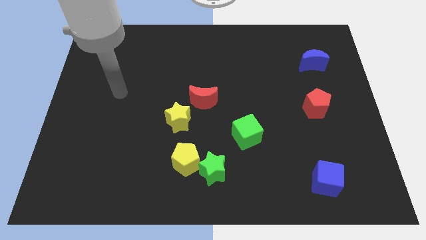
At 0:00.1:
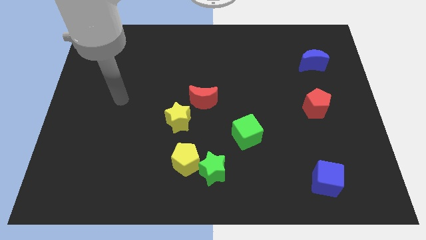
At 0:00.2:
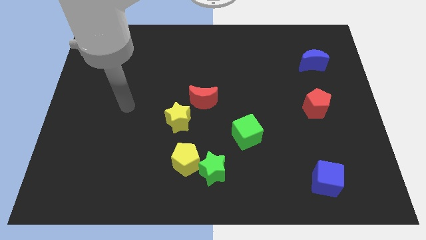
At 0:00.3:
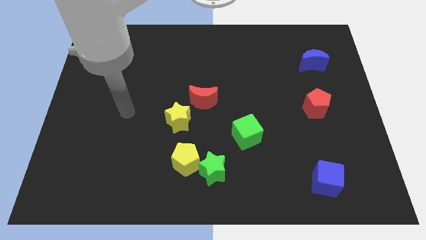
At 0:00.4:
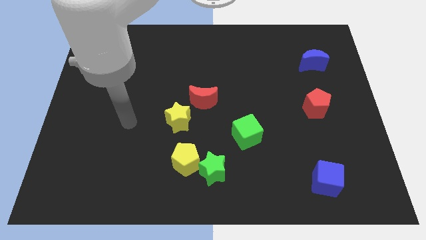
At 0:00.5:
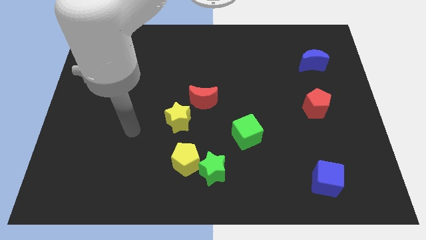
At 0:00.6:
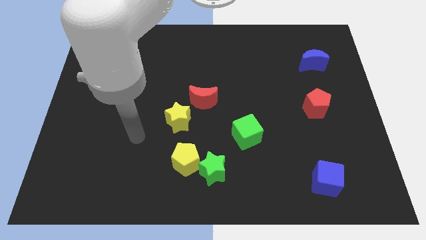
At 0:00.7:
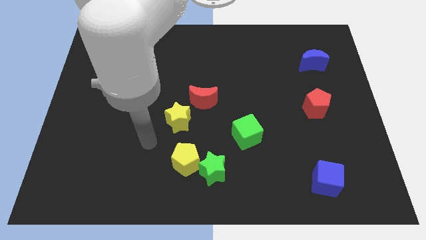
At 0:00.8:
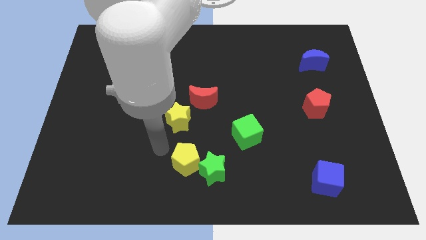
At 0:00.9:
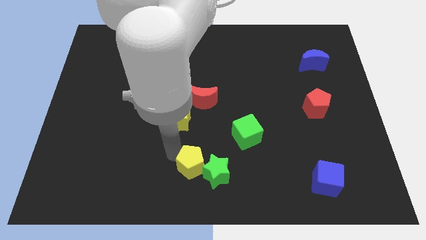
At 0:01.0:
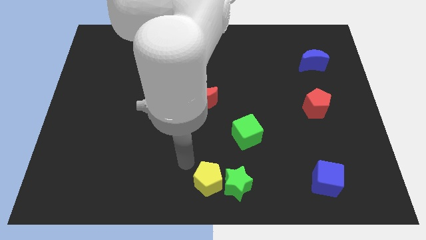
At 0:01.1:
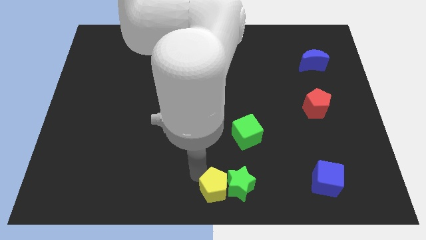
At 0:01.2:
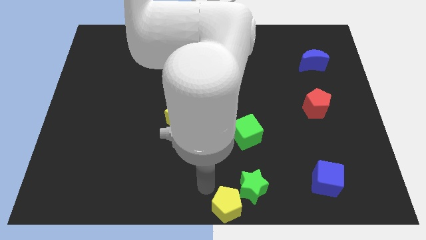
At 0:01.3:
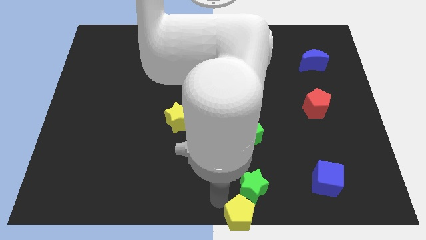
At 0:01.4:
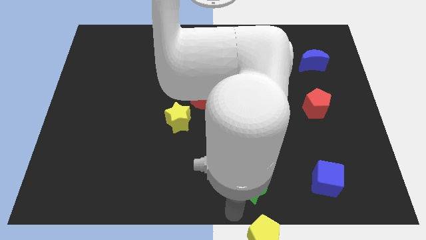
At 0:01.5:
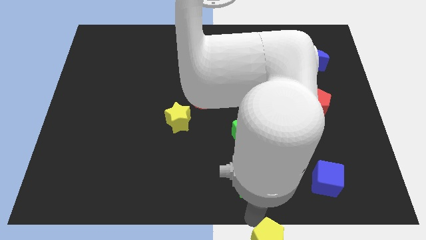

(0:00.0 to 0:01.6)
move the green star away from the yellow pentagon

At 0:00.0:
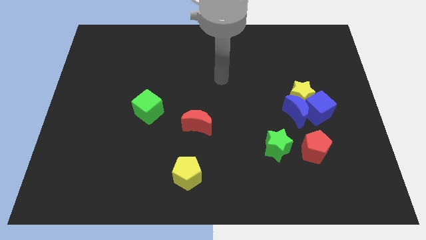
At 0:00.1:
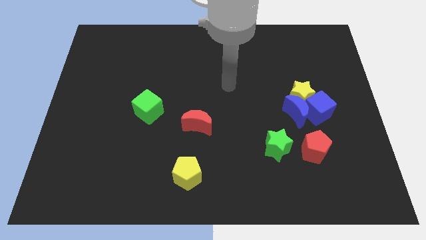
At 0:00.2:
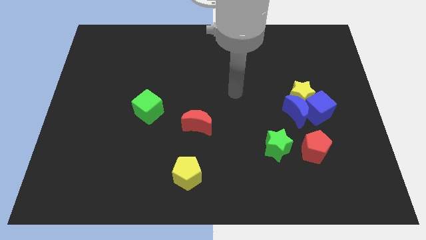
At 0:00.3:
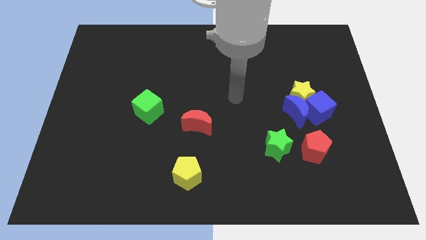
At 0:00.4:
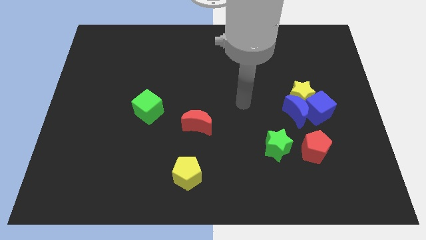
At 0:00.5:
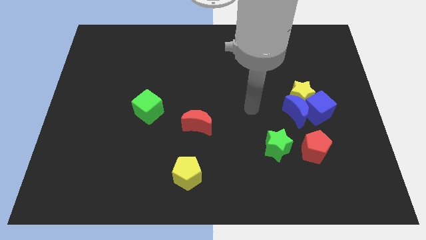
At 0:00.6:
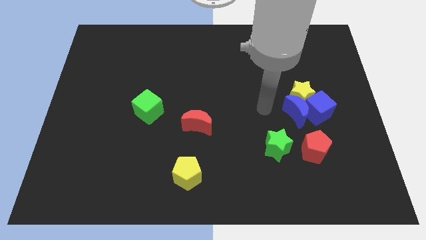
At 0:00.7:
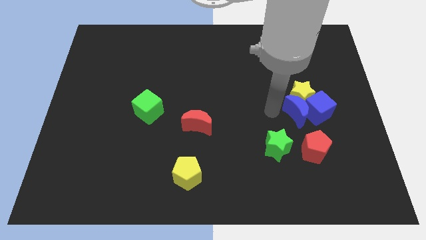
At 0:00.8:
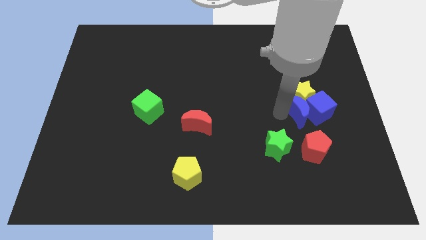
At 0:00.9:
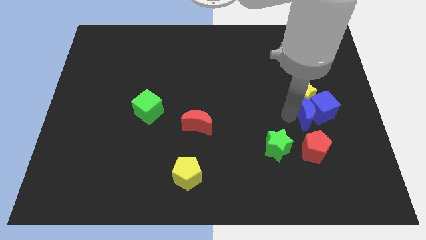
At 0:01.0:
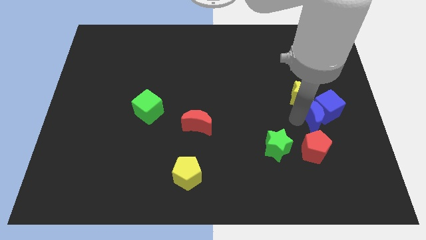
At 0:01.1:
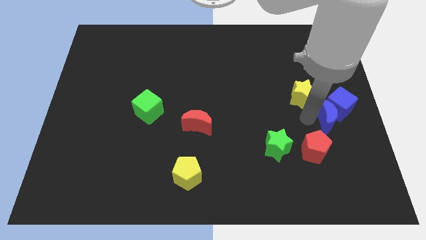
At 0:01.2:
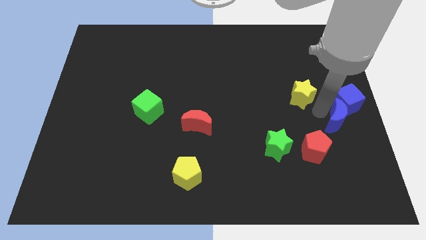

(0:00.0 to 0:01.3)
separate the yellow star from the blue moon and blue cube

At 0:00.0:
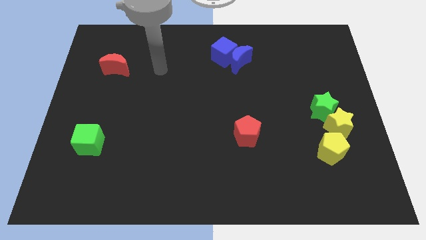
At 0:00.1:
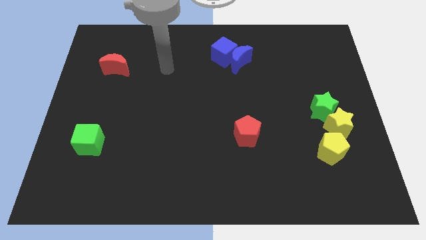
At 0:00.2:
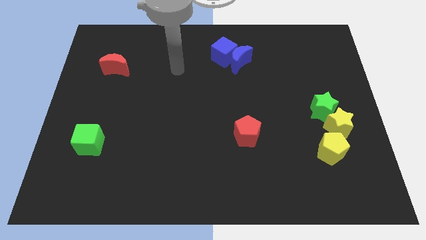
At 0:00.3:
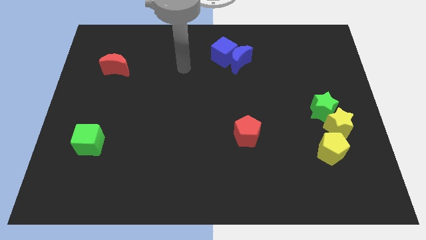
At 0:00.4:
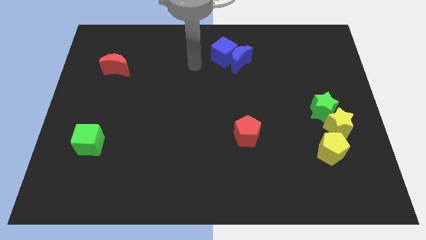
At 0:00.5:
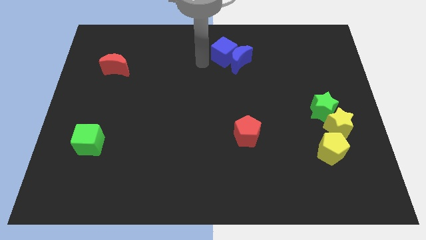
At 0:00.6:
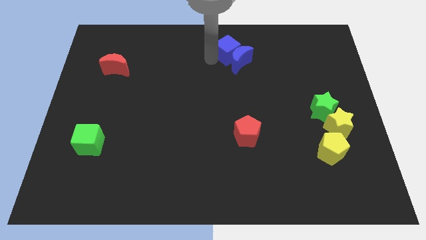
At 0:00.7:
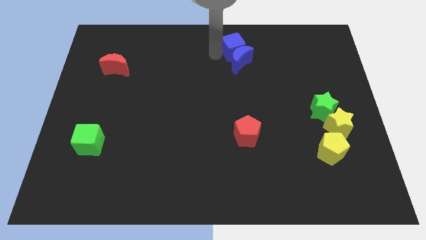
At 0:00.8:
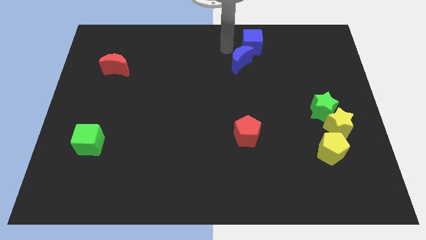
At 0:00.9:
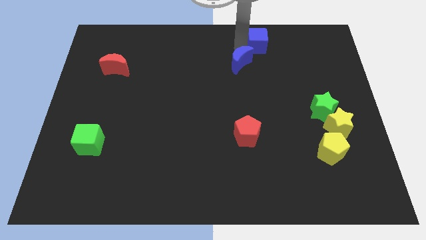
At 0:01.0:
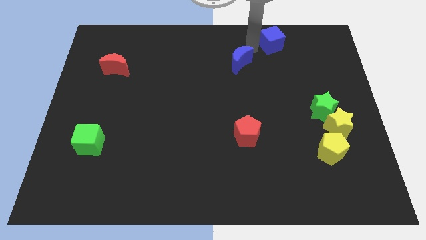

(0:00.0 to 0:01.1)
move the blue moon away from the blue cube

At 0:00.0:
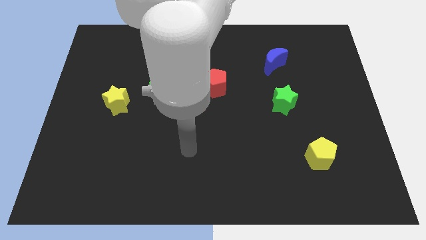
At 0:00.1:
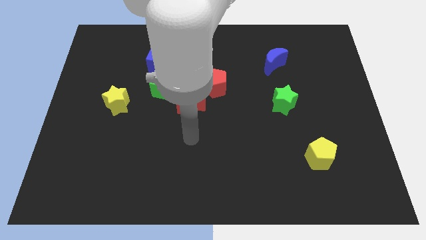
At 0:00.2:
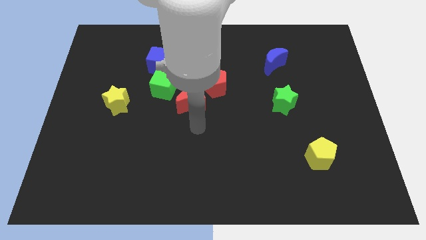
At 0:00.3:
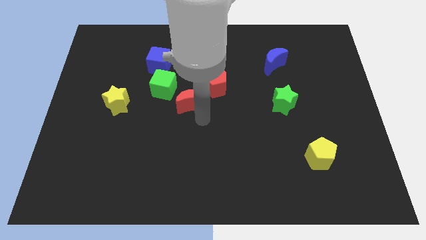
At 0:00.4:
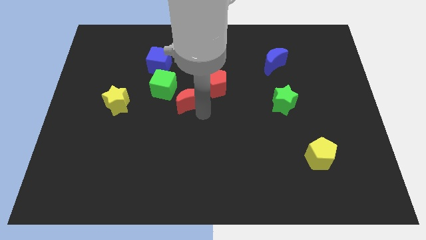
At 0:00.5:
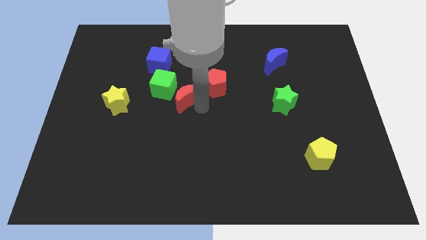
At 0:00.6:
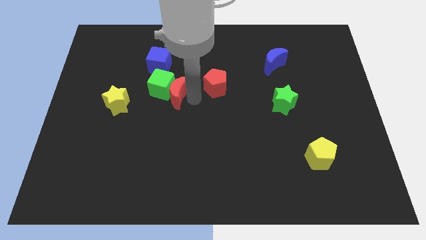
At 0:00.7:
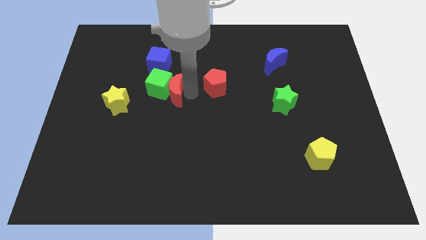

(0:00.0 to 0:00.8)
move the red pentagon away from the red moon

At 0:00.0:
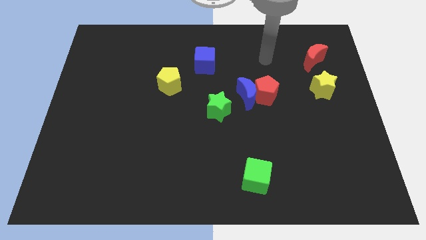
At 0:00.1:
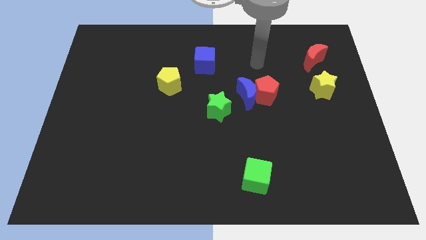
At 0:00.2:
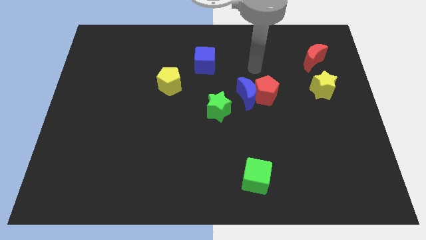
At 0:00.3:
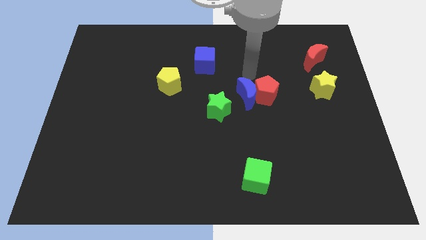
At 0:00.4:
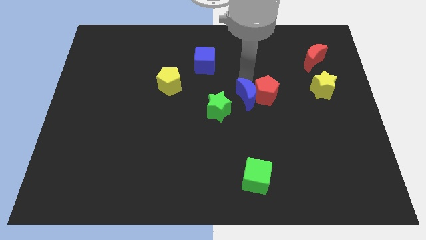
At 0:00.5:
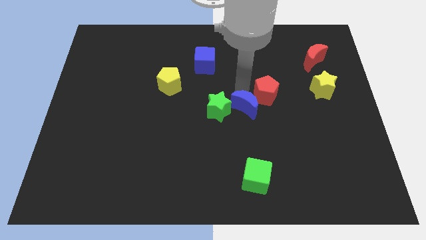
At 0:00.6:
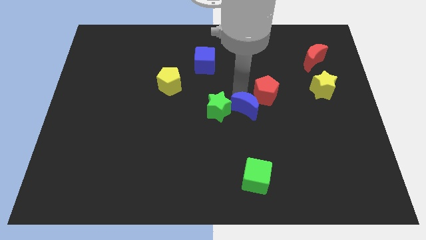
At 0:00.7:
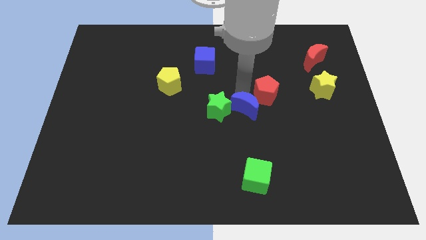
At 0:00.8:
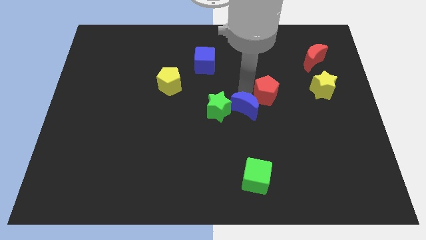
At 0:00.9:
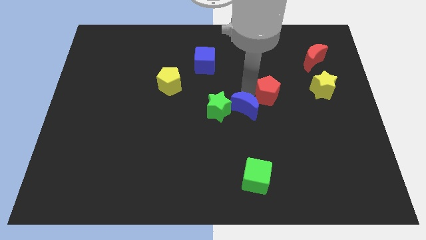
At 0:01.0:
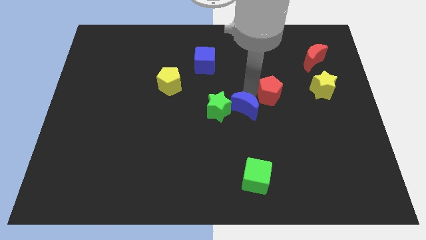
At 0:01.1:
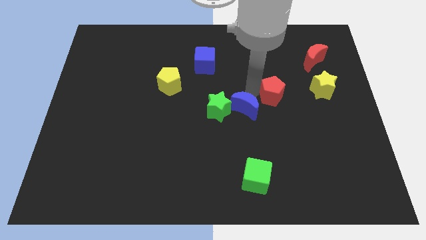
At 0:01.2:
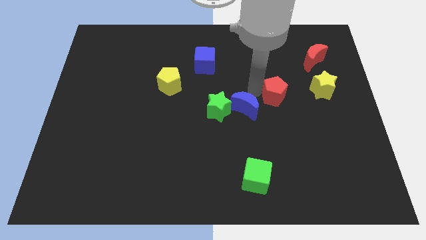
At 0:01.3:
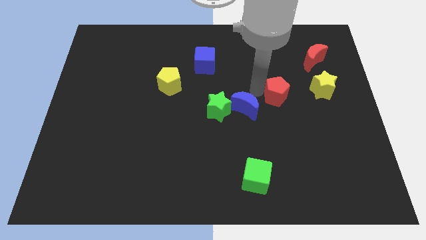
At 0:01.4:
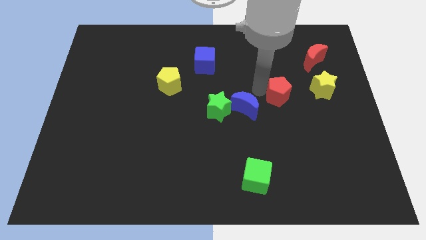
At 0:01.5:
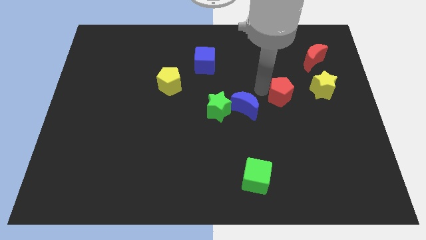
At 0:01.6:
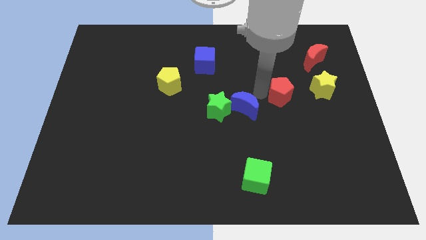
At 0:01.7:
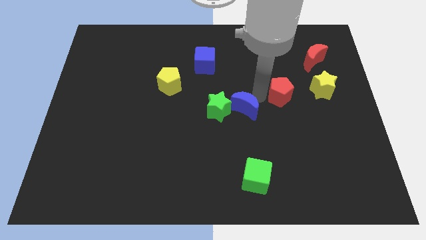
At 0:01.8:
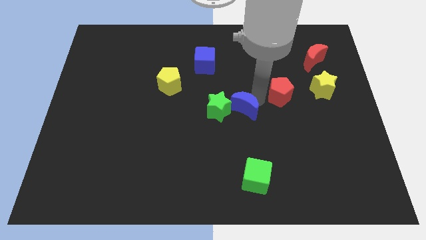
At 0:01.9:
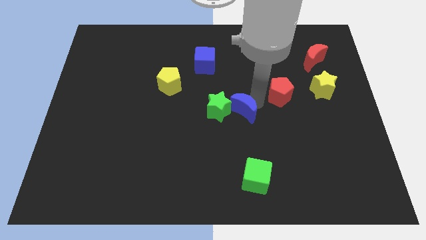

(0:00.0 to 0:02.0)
pull the red pentagon apart from the blue moon

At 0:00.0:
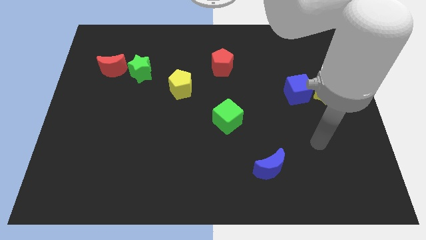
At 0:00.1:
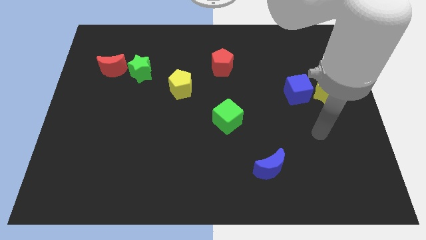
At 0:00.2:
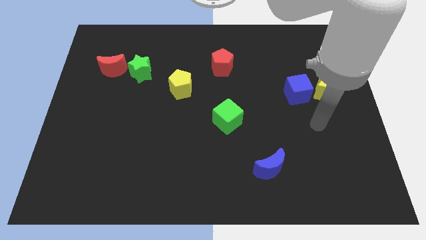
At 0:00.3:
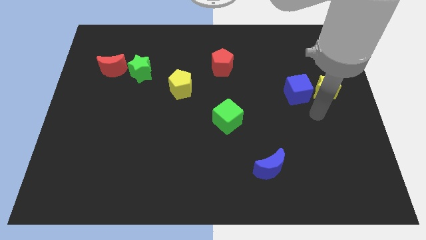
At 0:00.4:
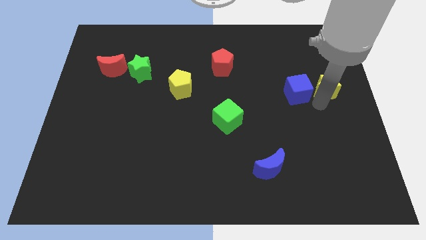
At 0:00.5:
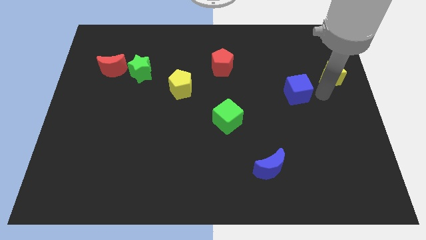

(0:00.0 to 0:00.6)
move the blue cube away from the yellow star

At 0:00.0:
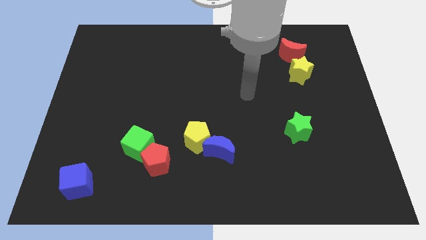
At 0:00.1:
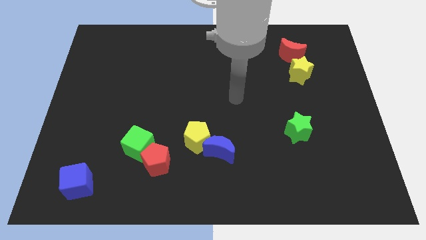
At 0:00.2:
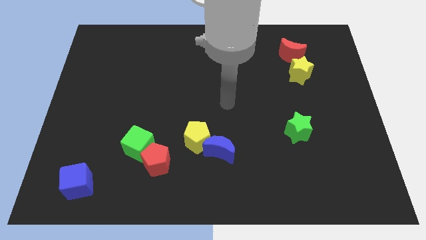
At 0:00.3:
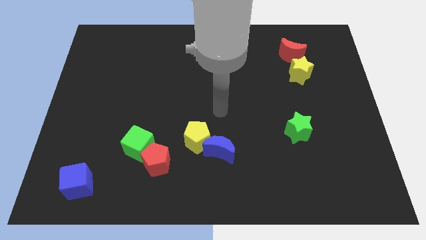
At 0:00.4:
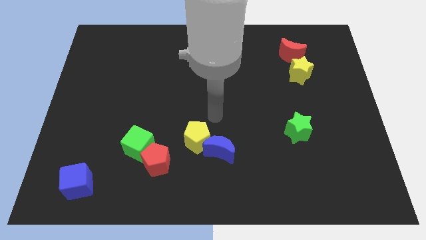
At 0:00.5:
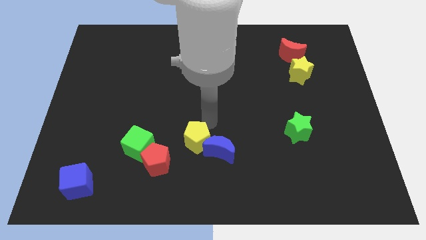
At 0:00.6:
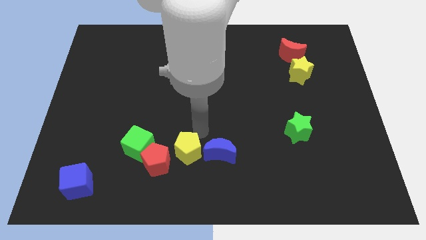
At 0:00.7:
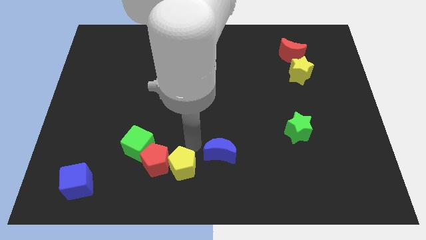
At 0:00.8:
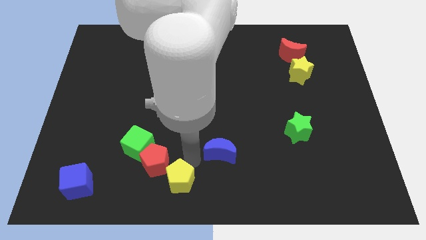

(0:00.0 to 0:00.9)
pull the blue moon apart from the yellow pentagon

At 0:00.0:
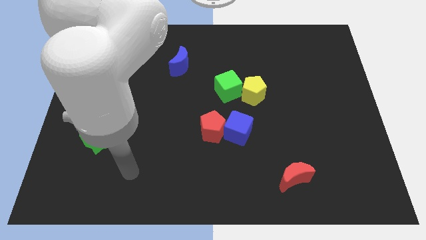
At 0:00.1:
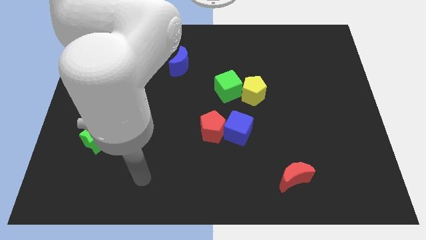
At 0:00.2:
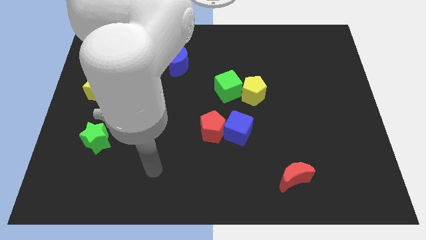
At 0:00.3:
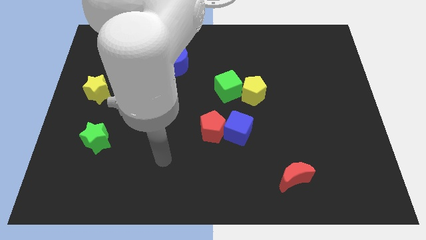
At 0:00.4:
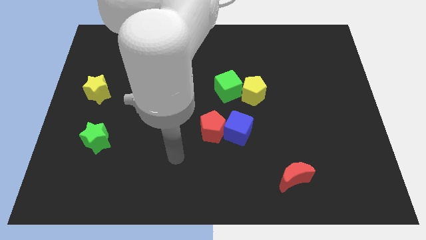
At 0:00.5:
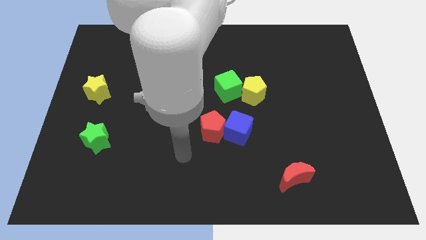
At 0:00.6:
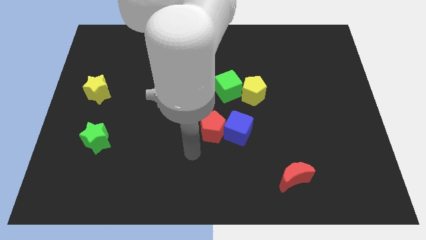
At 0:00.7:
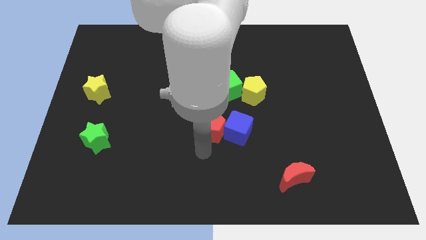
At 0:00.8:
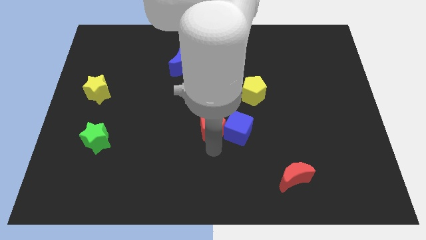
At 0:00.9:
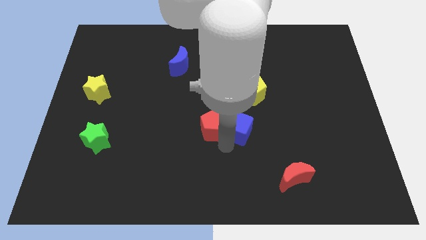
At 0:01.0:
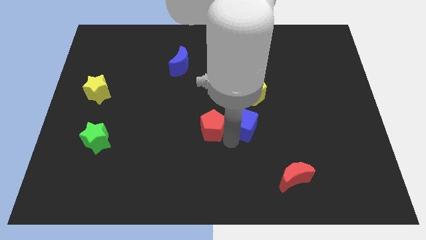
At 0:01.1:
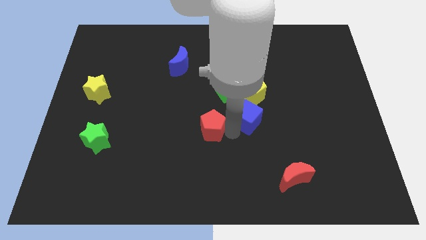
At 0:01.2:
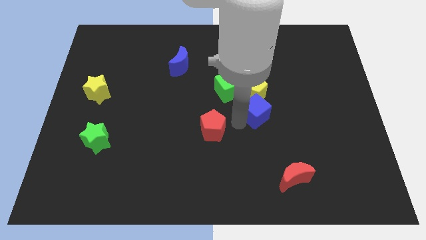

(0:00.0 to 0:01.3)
move the red pentagon away from the blue cube
